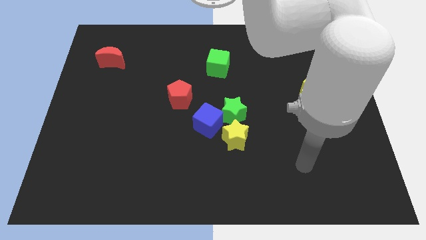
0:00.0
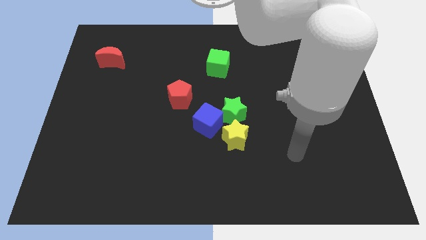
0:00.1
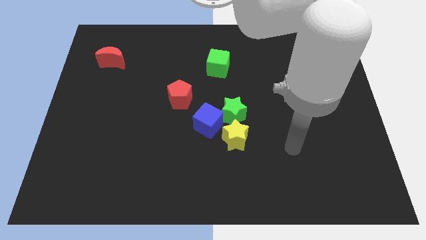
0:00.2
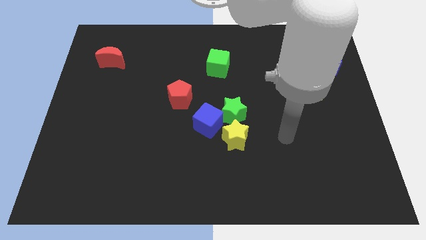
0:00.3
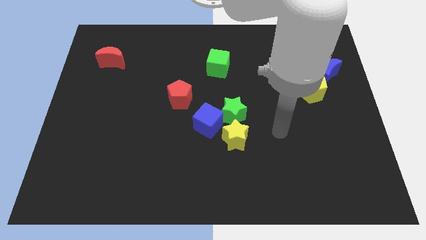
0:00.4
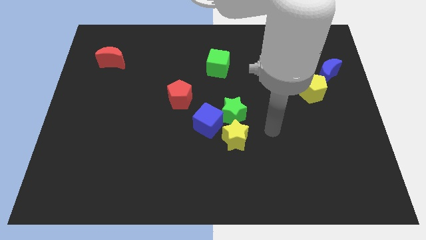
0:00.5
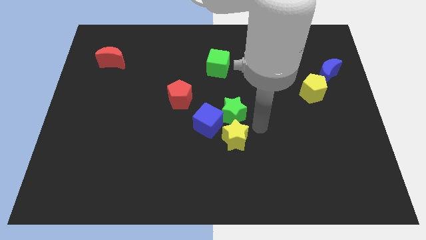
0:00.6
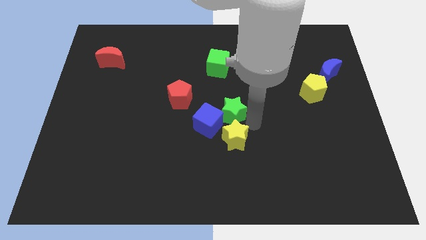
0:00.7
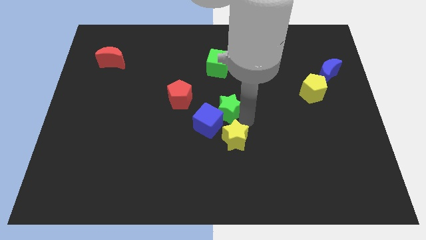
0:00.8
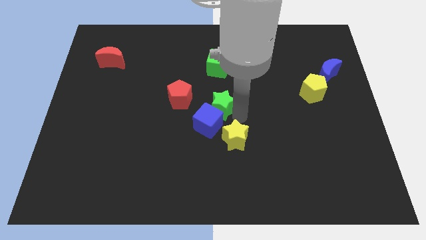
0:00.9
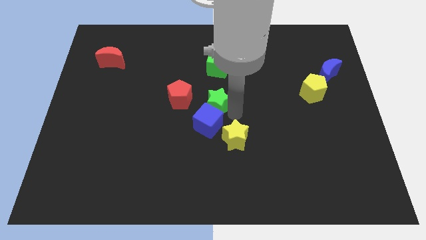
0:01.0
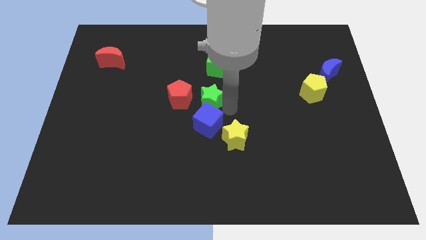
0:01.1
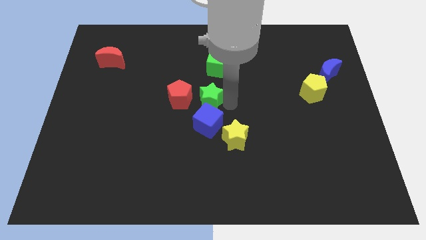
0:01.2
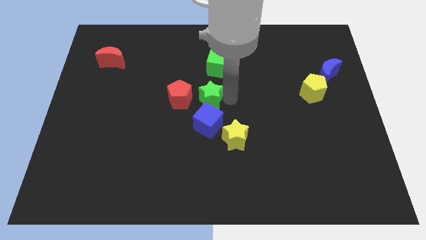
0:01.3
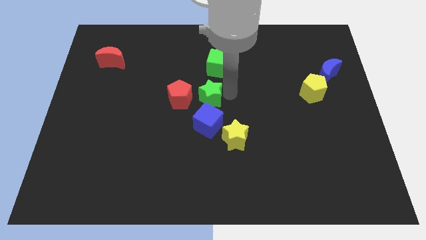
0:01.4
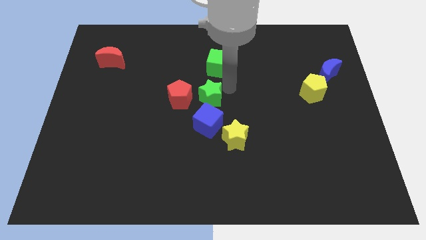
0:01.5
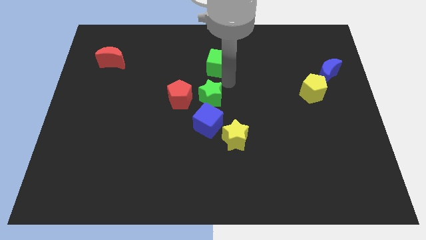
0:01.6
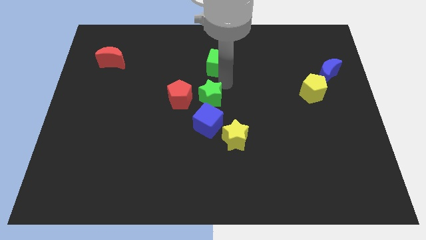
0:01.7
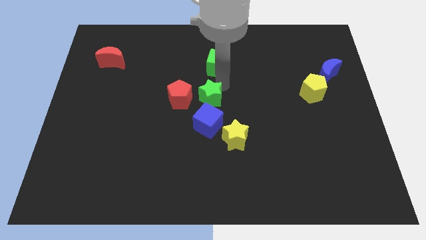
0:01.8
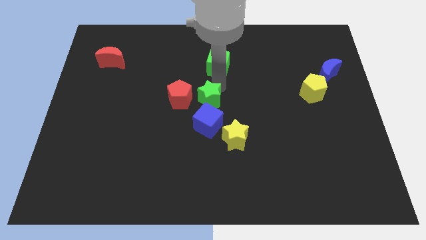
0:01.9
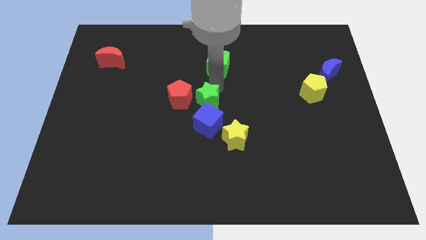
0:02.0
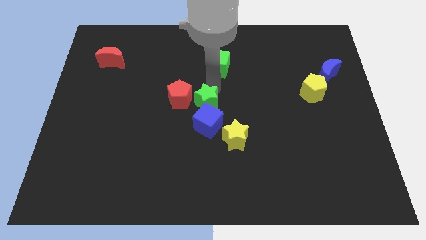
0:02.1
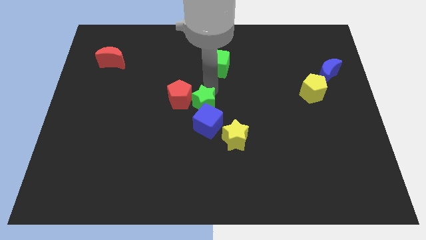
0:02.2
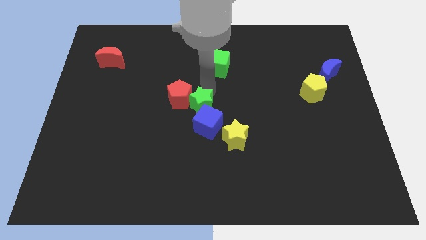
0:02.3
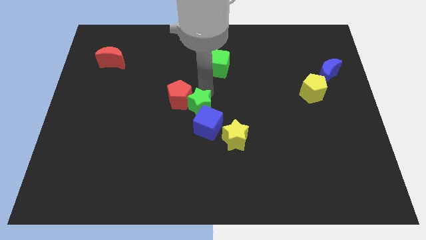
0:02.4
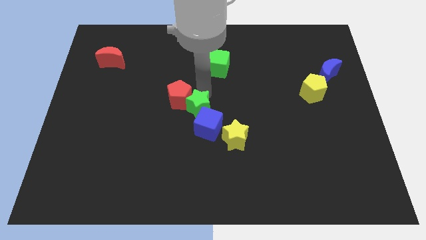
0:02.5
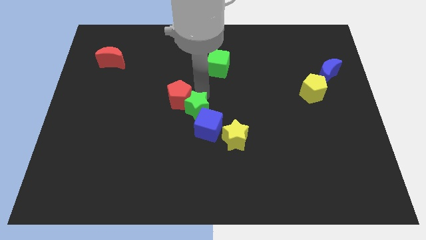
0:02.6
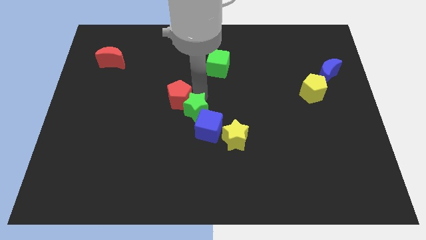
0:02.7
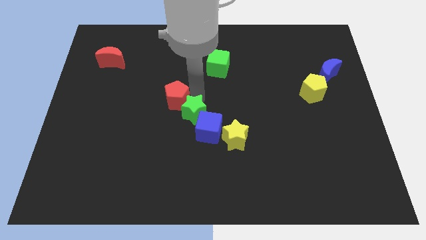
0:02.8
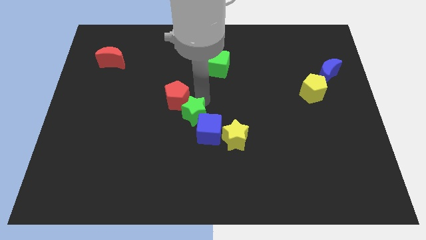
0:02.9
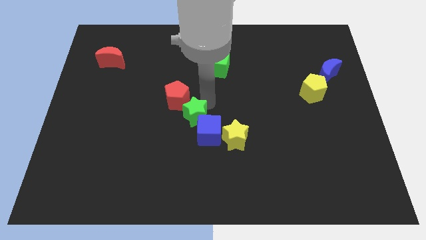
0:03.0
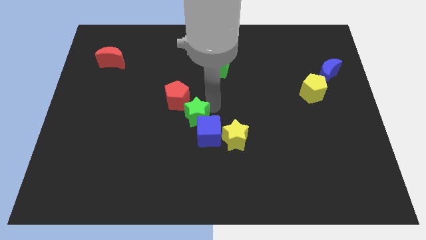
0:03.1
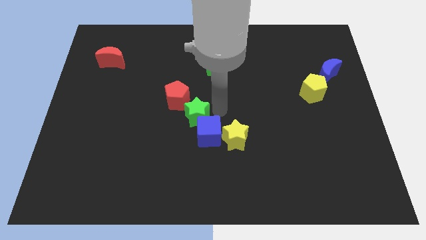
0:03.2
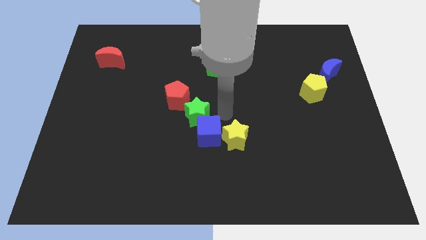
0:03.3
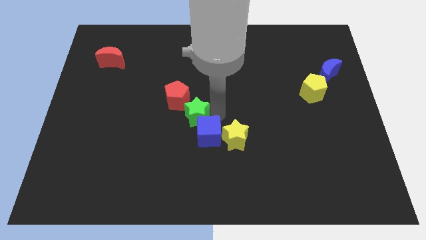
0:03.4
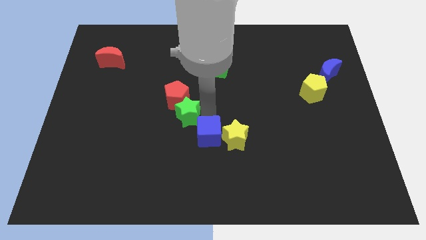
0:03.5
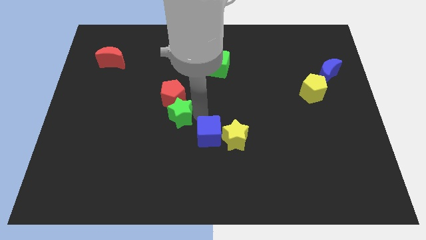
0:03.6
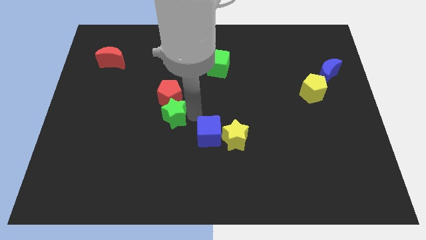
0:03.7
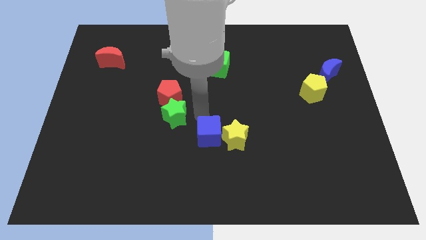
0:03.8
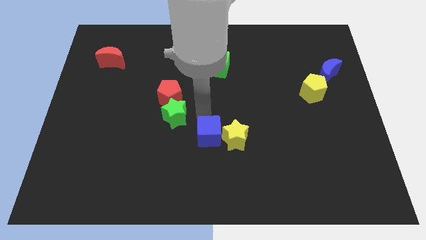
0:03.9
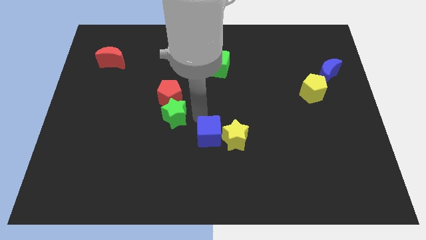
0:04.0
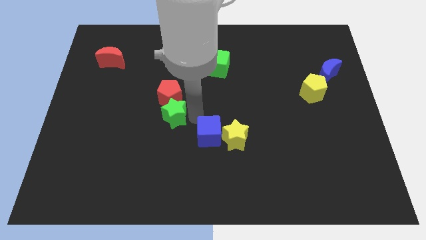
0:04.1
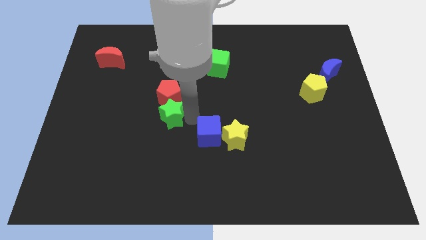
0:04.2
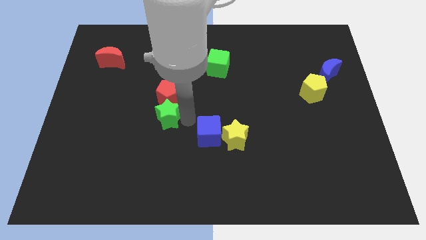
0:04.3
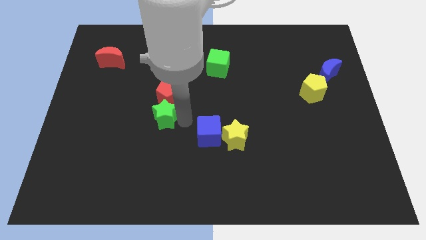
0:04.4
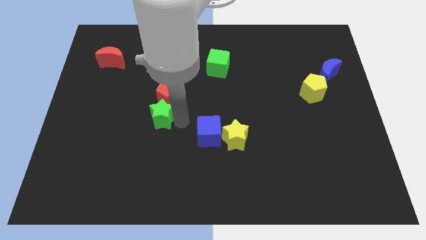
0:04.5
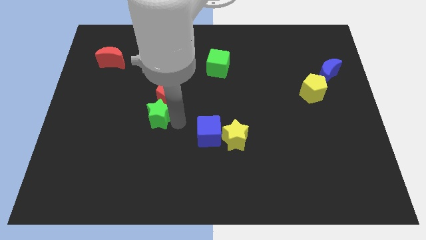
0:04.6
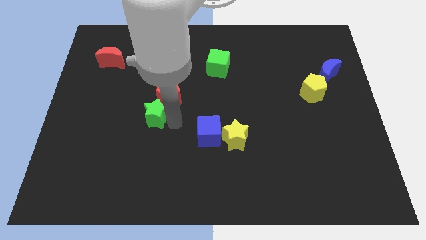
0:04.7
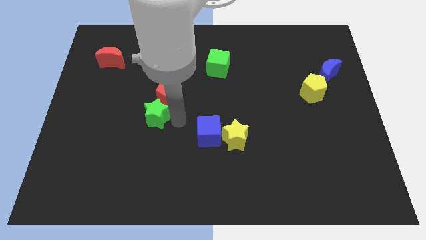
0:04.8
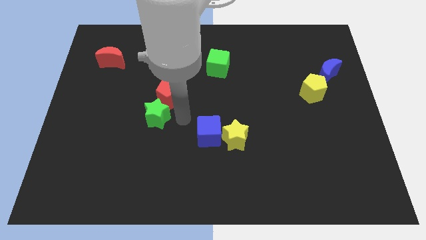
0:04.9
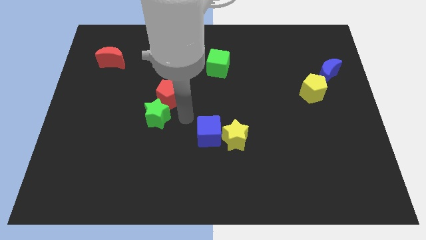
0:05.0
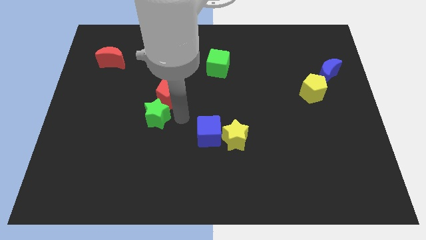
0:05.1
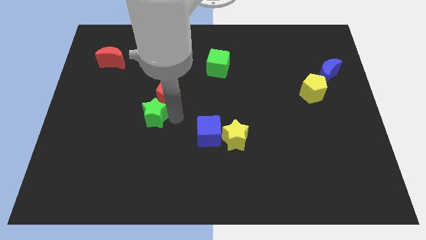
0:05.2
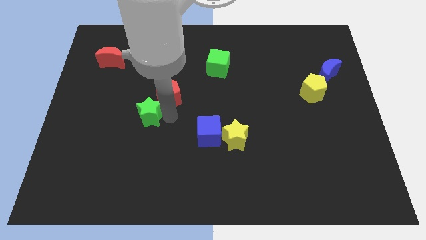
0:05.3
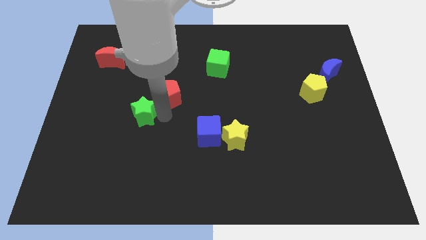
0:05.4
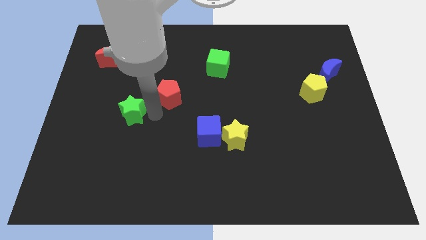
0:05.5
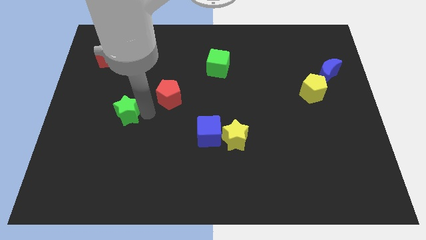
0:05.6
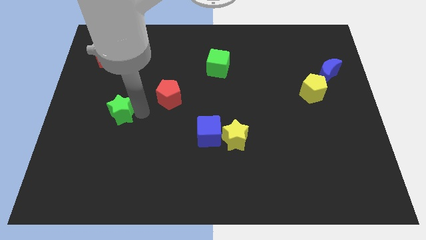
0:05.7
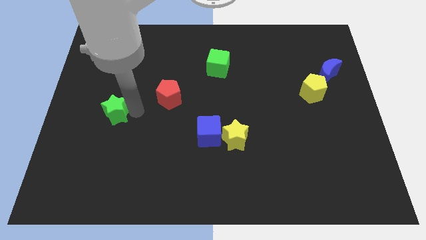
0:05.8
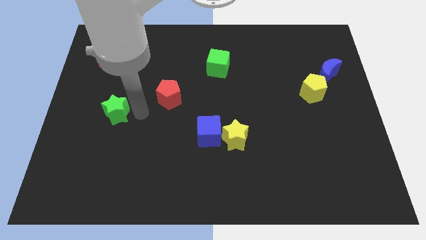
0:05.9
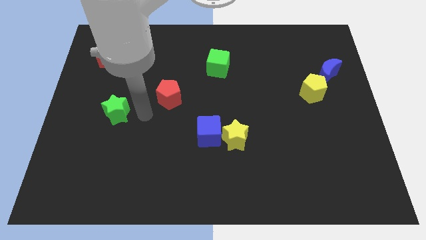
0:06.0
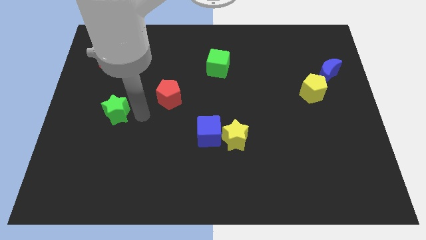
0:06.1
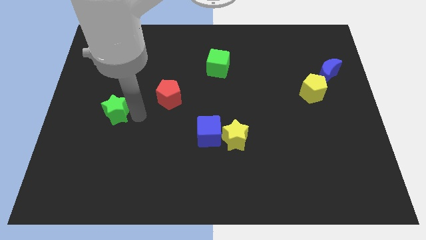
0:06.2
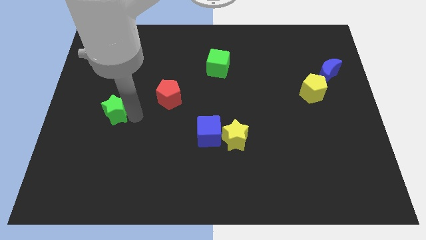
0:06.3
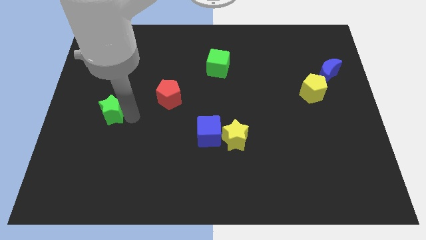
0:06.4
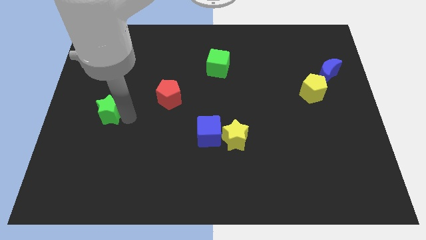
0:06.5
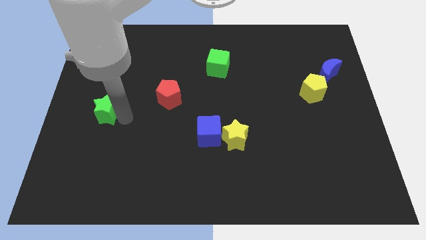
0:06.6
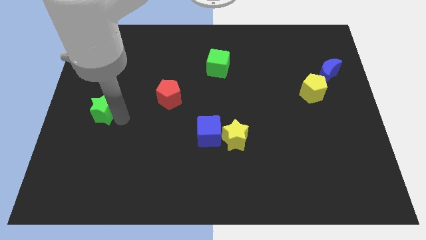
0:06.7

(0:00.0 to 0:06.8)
push the green star to the left side
